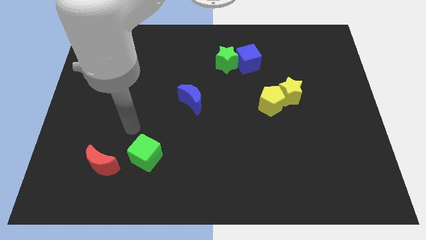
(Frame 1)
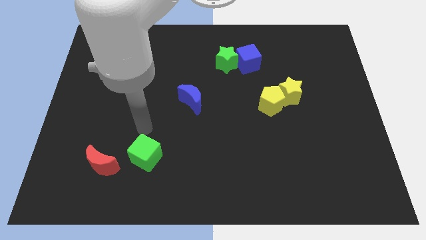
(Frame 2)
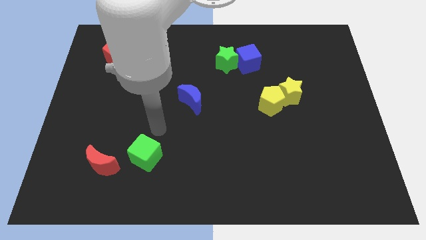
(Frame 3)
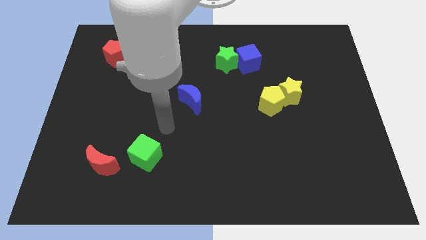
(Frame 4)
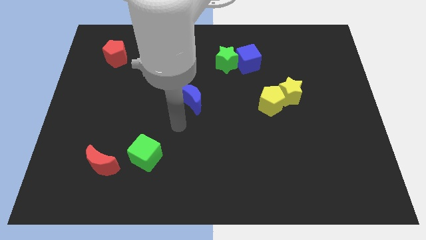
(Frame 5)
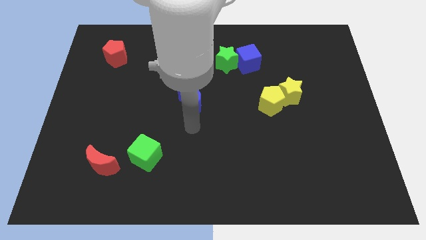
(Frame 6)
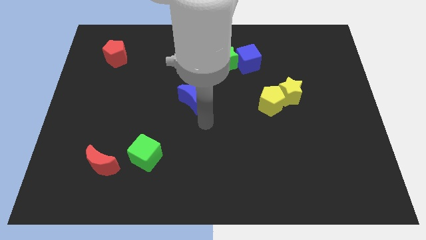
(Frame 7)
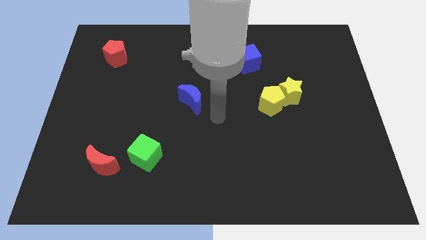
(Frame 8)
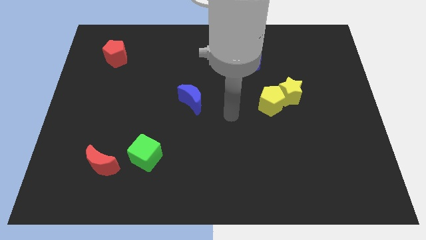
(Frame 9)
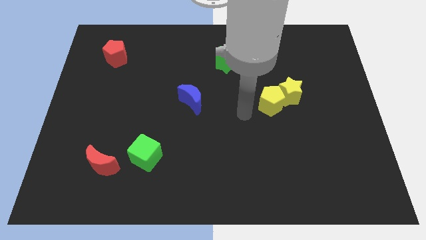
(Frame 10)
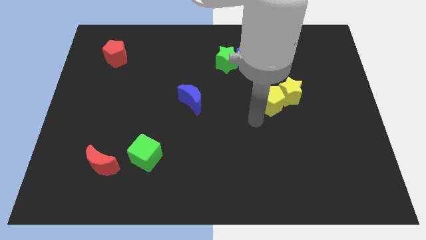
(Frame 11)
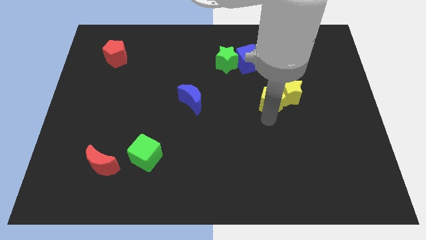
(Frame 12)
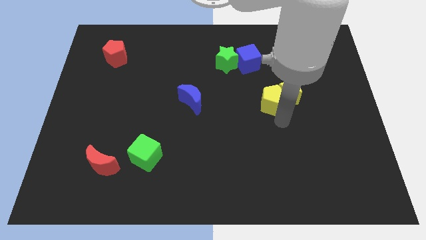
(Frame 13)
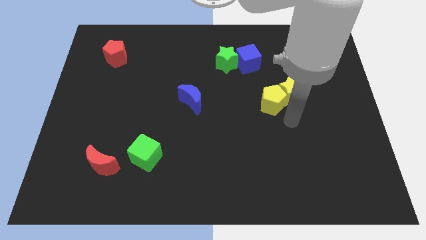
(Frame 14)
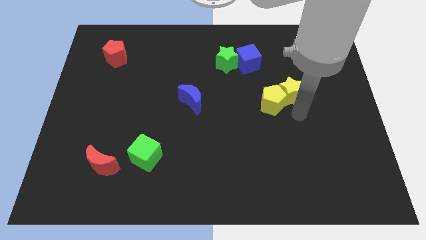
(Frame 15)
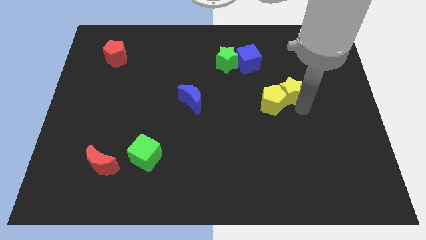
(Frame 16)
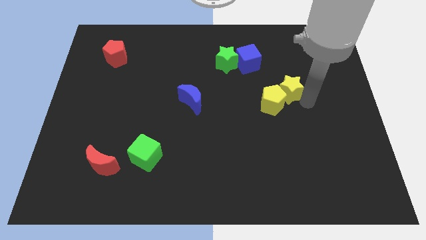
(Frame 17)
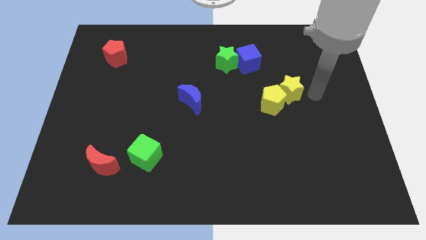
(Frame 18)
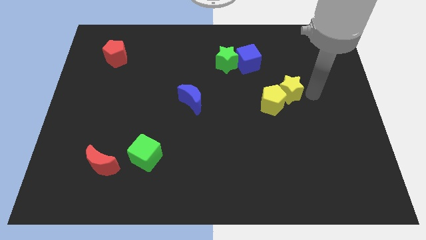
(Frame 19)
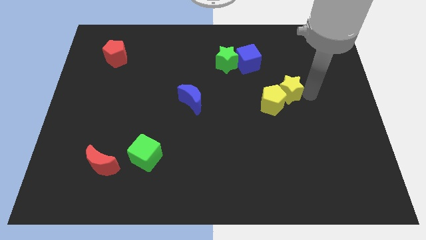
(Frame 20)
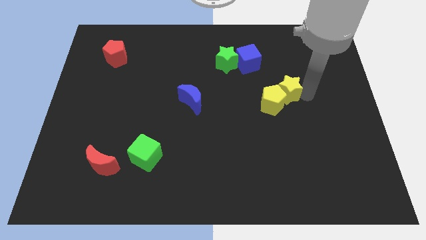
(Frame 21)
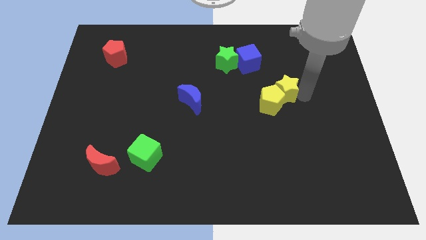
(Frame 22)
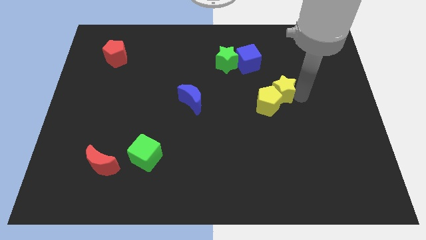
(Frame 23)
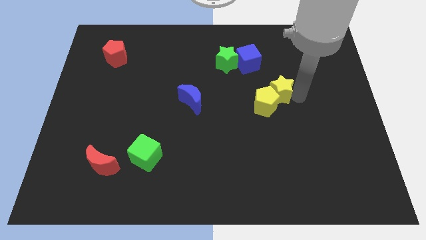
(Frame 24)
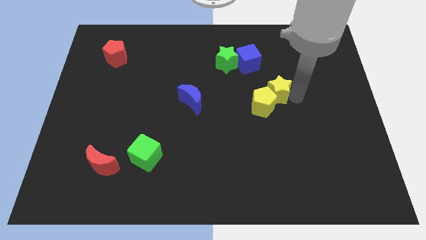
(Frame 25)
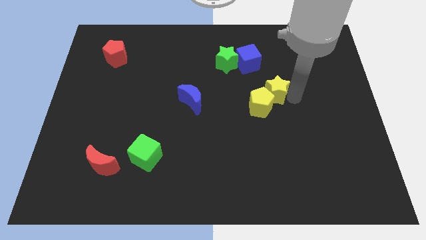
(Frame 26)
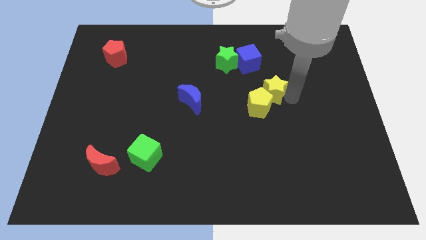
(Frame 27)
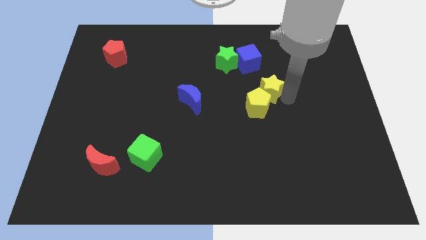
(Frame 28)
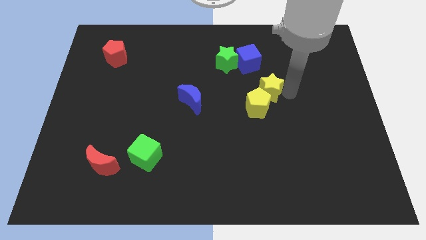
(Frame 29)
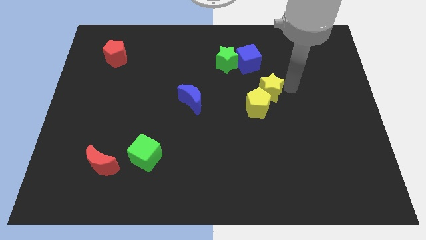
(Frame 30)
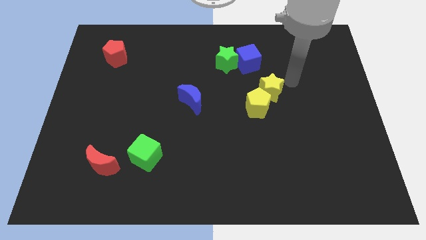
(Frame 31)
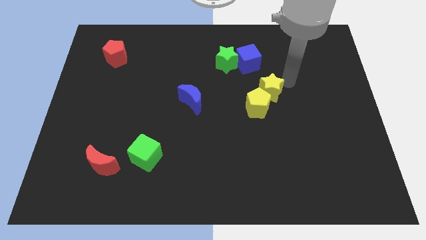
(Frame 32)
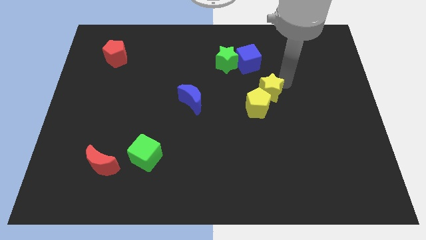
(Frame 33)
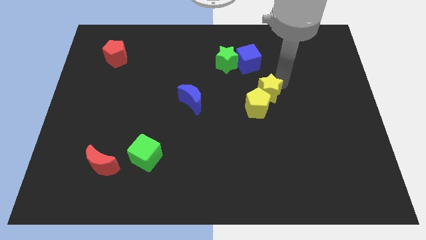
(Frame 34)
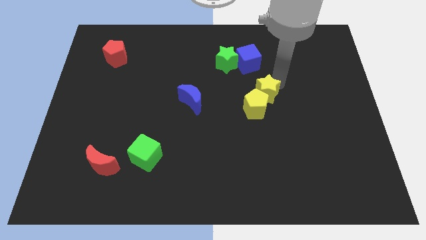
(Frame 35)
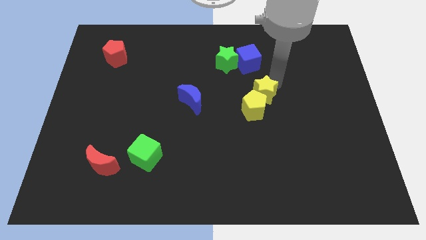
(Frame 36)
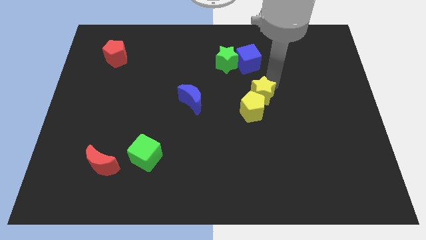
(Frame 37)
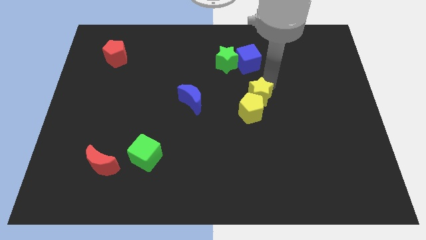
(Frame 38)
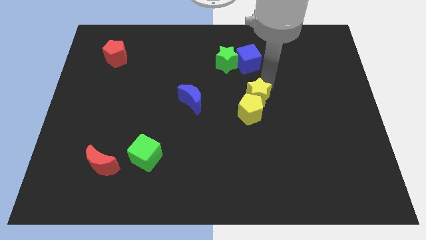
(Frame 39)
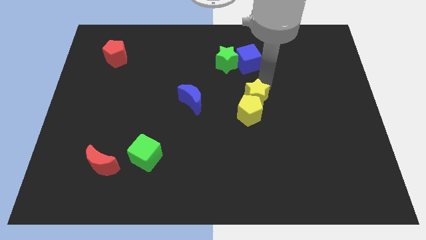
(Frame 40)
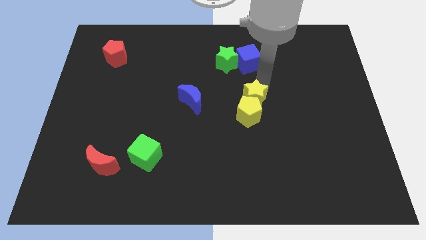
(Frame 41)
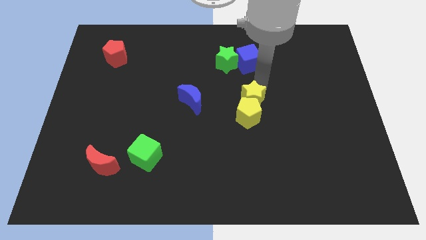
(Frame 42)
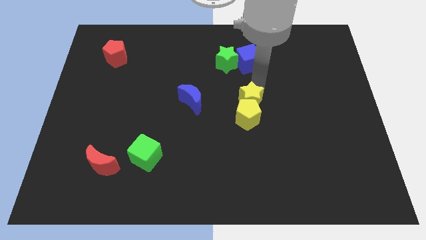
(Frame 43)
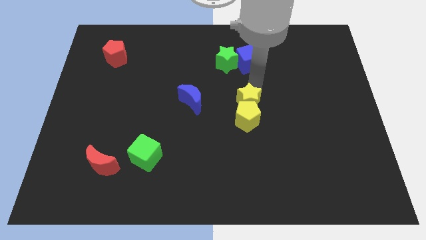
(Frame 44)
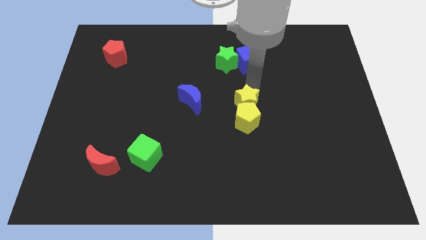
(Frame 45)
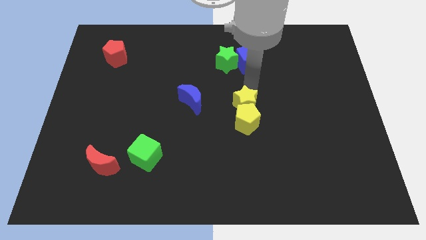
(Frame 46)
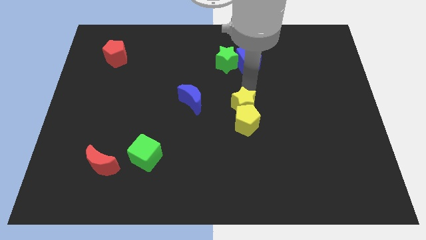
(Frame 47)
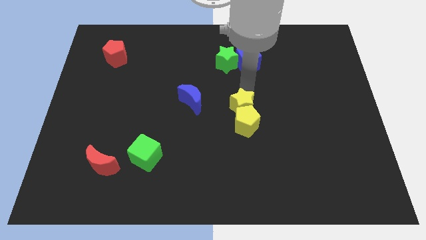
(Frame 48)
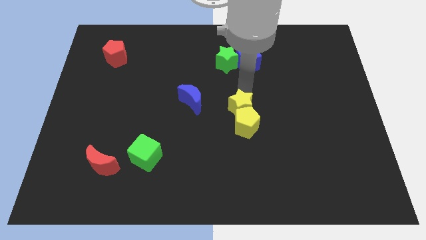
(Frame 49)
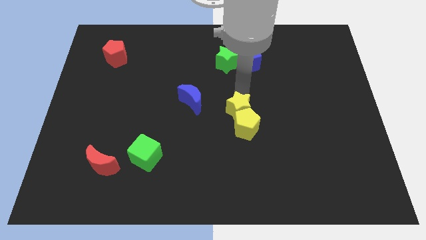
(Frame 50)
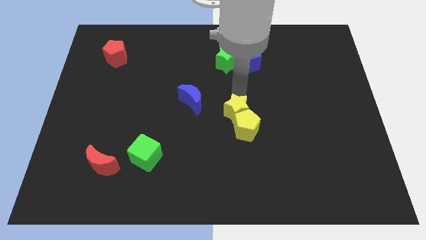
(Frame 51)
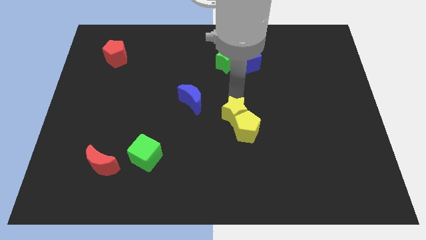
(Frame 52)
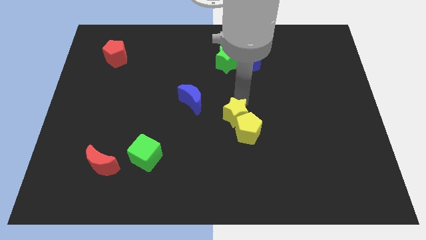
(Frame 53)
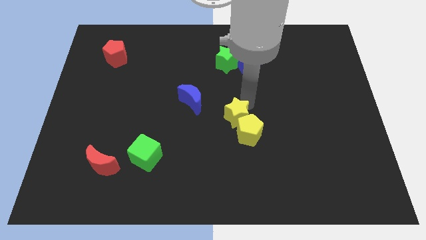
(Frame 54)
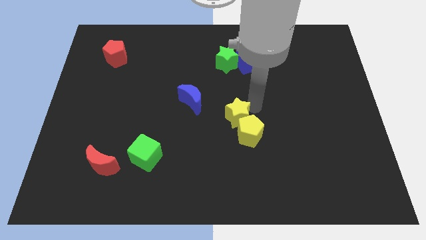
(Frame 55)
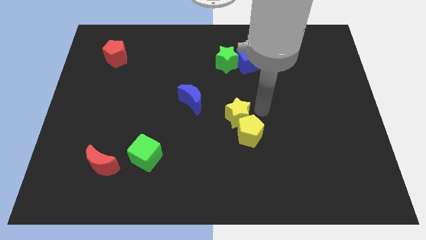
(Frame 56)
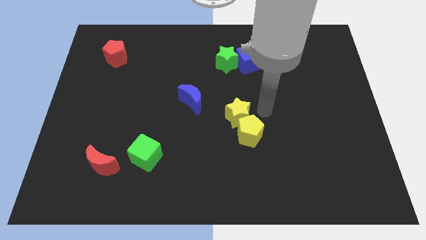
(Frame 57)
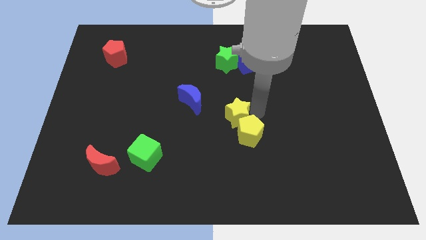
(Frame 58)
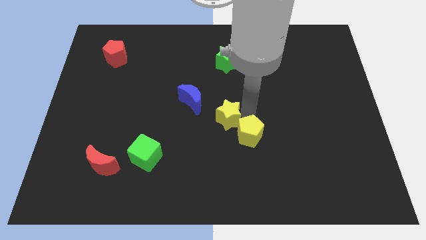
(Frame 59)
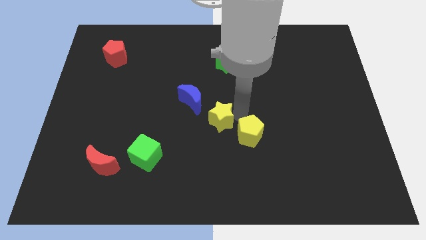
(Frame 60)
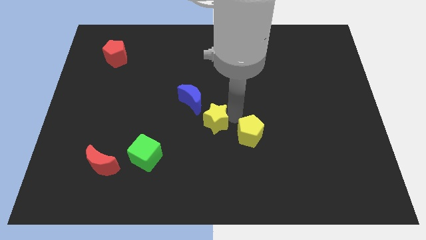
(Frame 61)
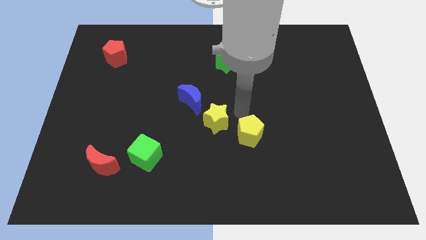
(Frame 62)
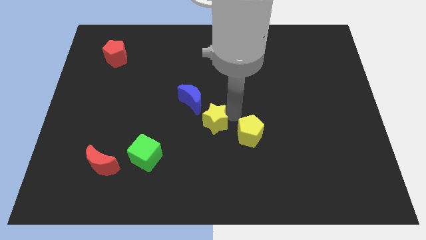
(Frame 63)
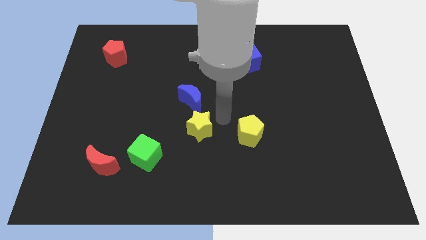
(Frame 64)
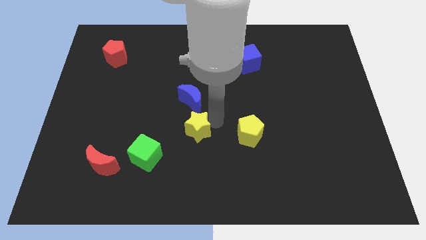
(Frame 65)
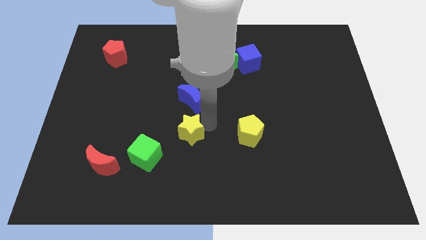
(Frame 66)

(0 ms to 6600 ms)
move the yellow star to the top right of the green cube

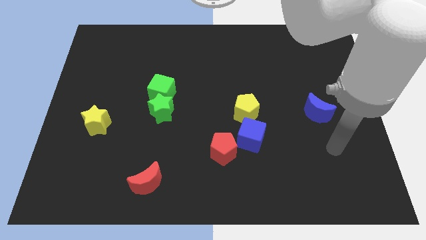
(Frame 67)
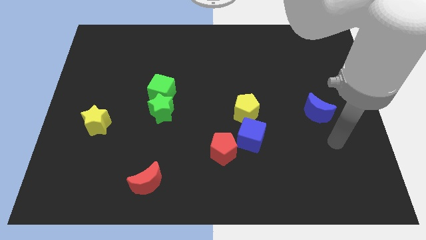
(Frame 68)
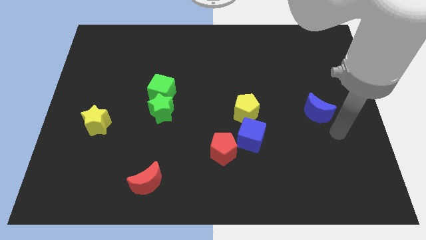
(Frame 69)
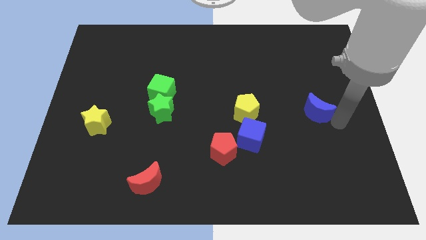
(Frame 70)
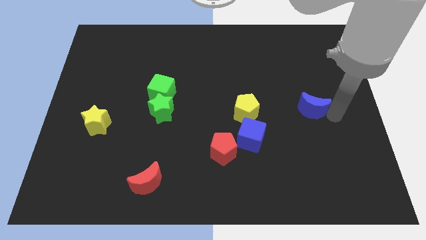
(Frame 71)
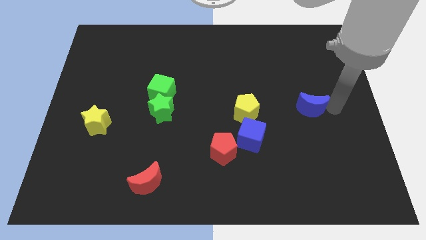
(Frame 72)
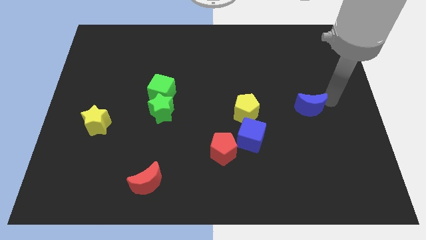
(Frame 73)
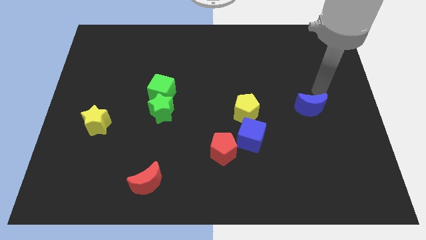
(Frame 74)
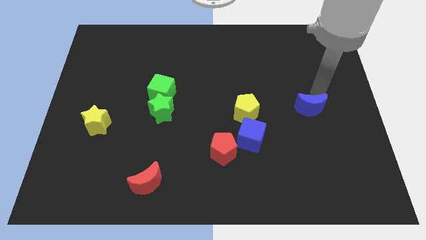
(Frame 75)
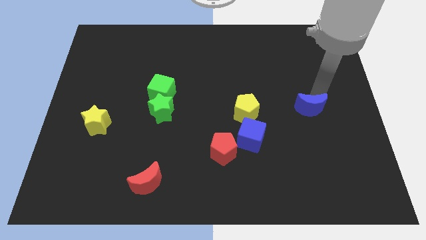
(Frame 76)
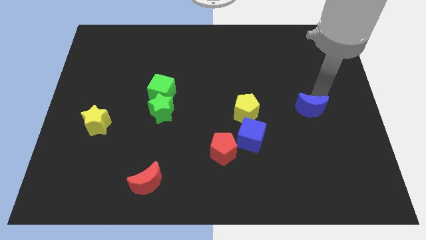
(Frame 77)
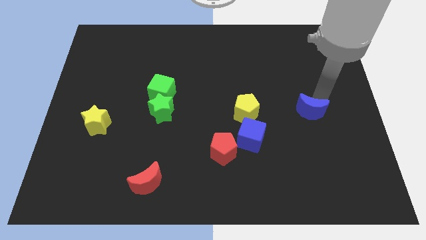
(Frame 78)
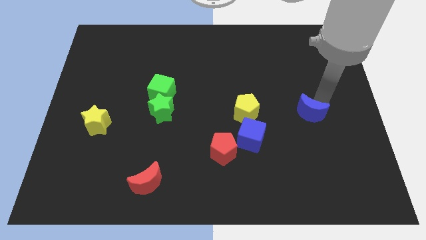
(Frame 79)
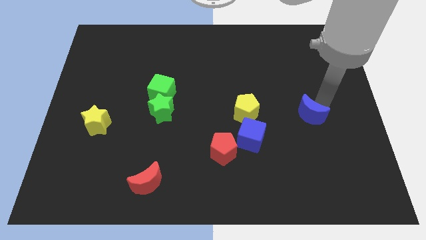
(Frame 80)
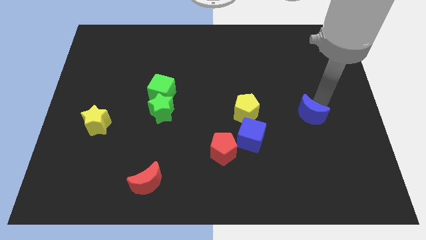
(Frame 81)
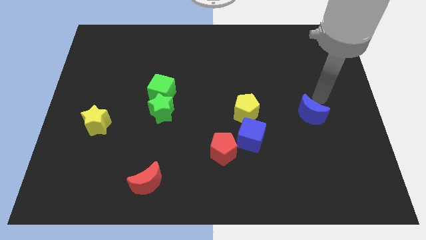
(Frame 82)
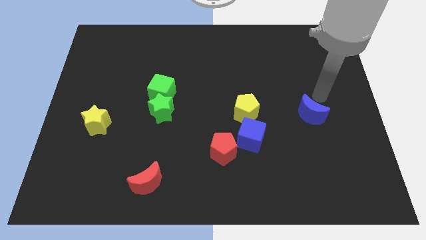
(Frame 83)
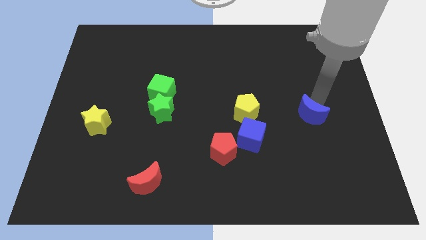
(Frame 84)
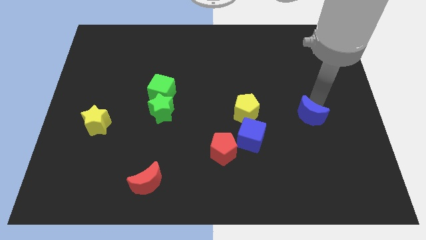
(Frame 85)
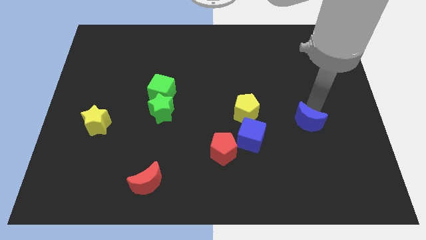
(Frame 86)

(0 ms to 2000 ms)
move the blue moon right of the blue cube
